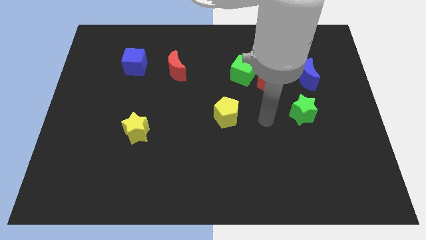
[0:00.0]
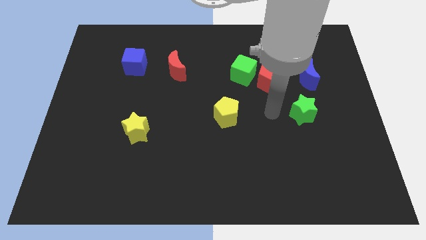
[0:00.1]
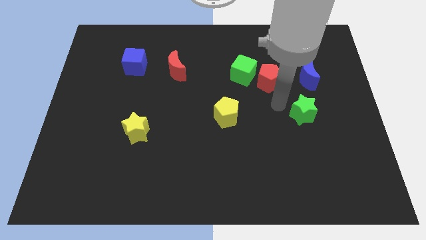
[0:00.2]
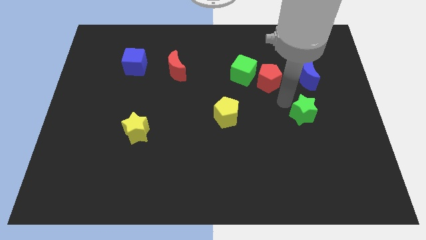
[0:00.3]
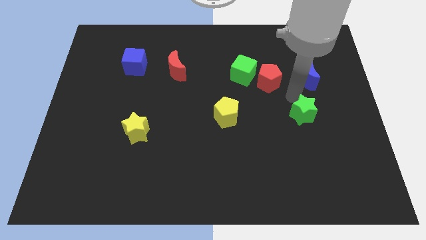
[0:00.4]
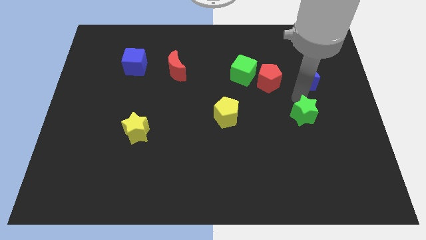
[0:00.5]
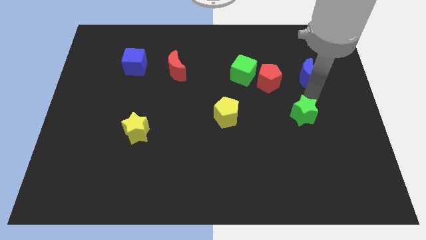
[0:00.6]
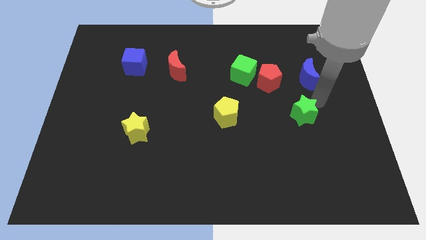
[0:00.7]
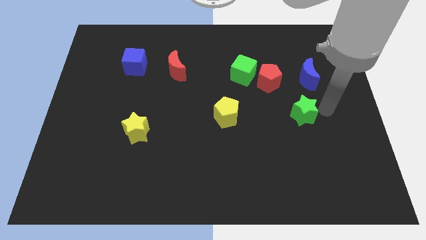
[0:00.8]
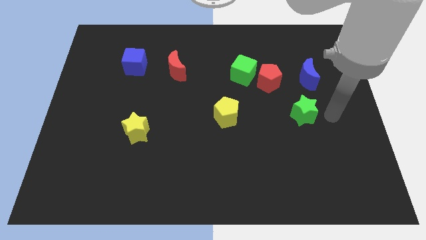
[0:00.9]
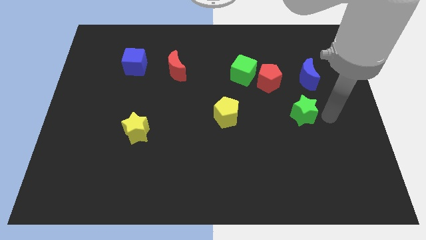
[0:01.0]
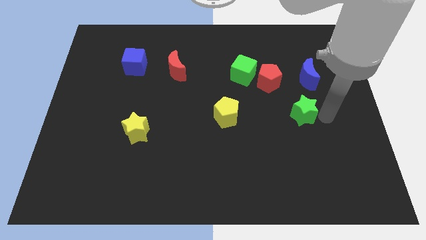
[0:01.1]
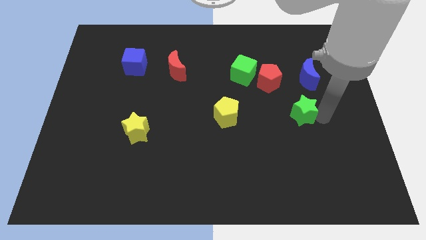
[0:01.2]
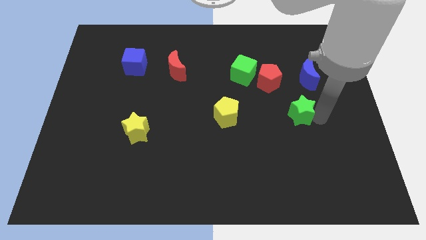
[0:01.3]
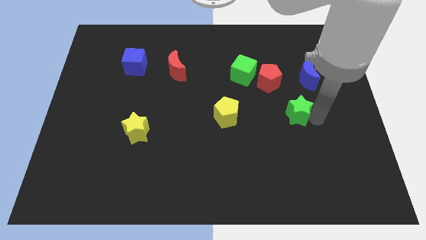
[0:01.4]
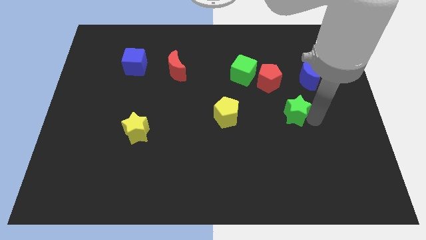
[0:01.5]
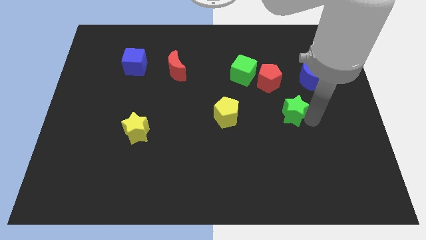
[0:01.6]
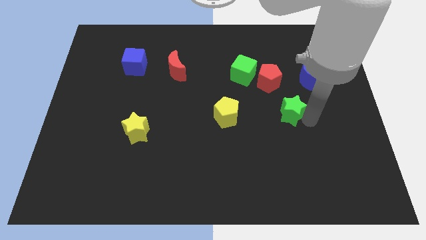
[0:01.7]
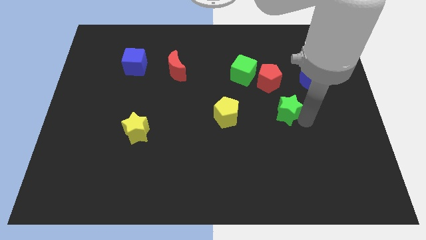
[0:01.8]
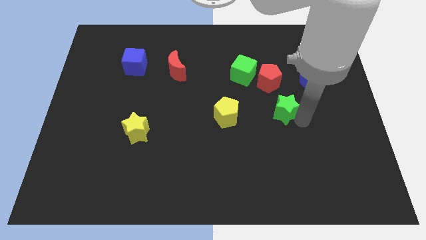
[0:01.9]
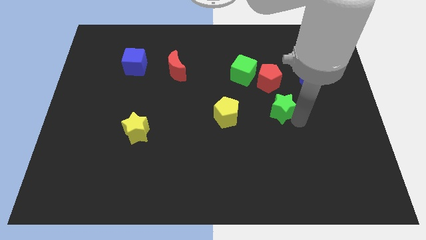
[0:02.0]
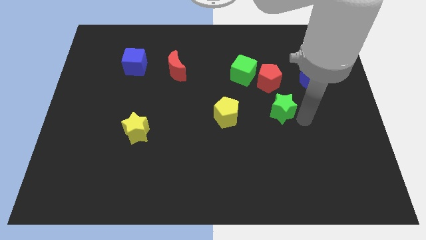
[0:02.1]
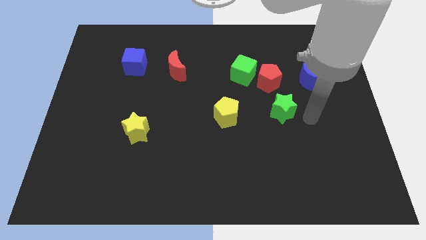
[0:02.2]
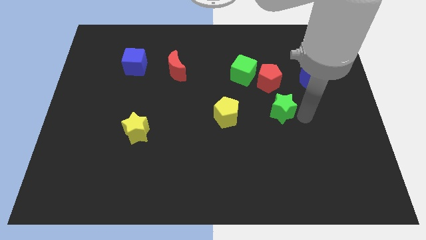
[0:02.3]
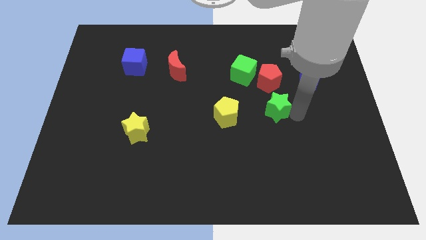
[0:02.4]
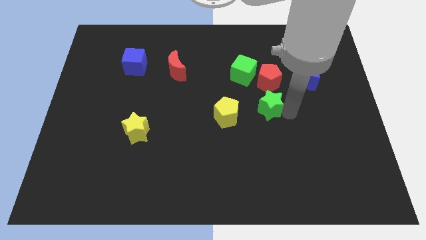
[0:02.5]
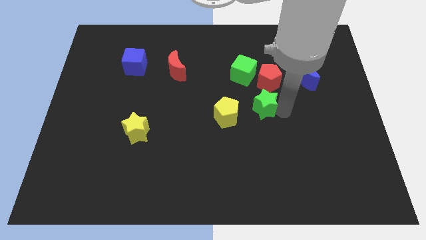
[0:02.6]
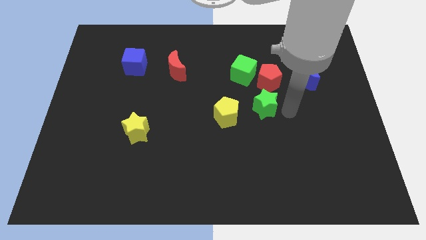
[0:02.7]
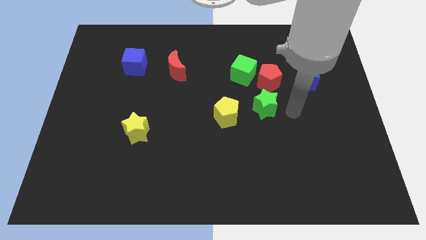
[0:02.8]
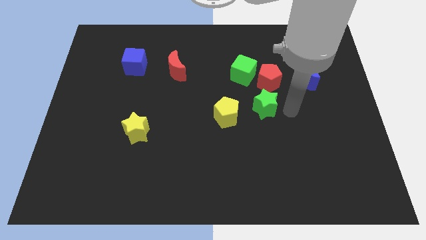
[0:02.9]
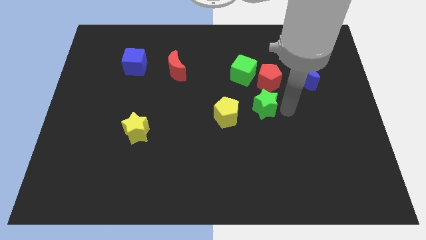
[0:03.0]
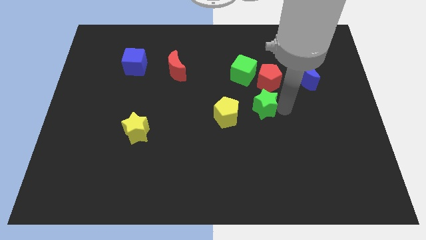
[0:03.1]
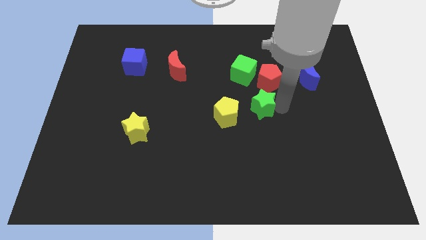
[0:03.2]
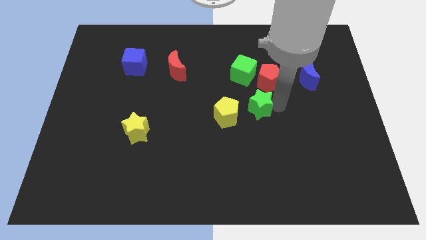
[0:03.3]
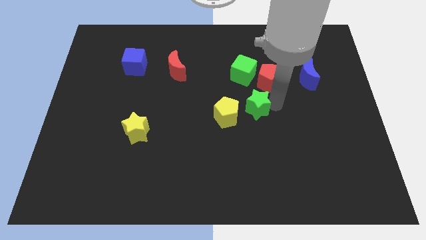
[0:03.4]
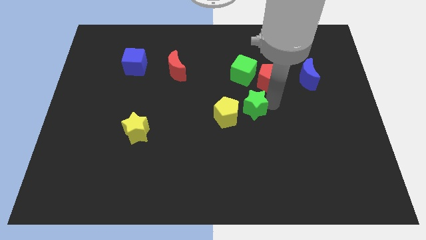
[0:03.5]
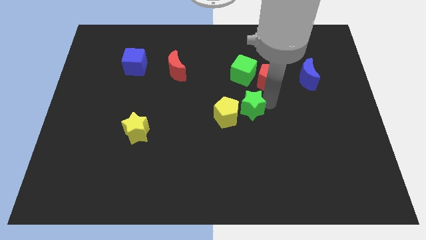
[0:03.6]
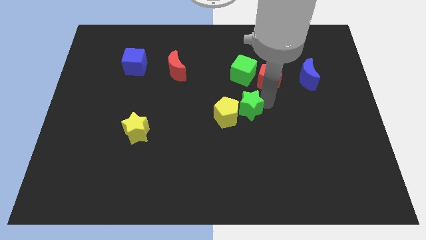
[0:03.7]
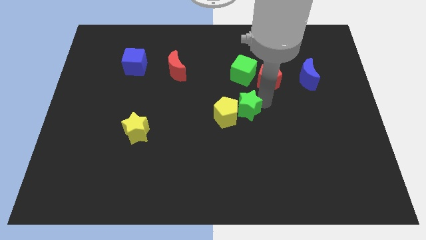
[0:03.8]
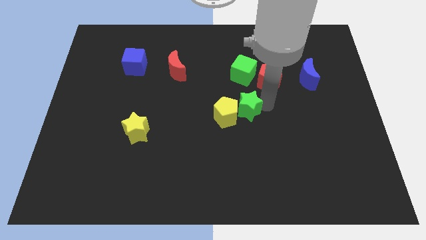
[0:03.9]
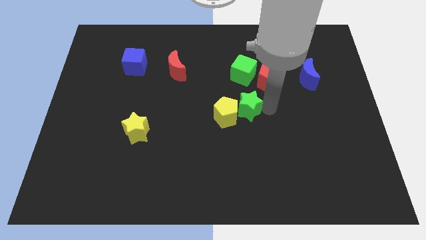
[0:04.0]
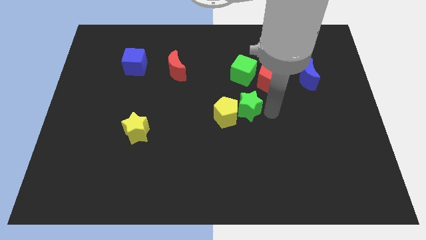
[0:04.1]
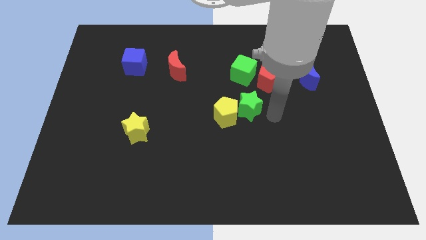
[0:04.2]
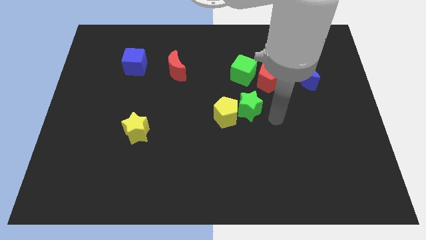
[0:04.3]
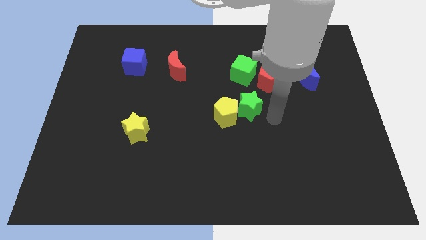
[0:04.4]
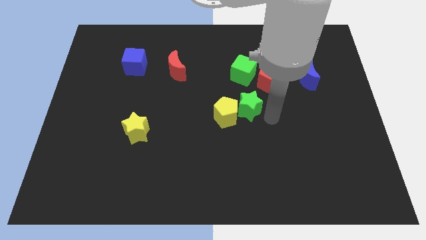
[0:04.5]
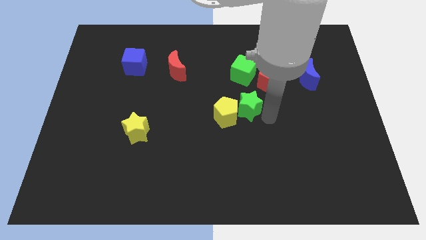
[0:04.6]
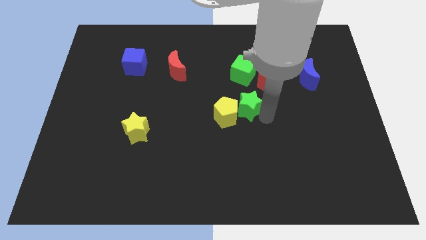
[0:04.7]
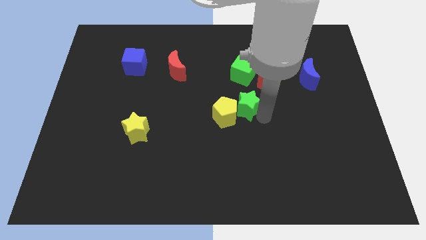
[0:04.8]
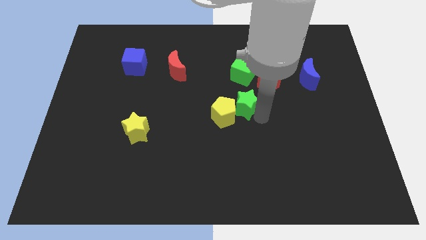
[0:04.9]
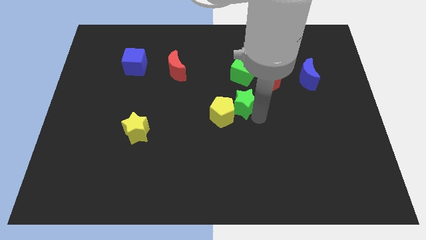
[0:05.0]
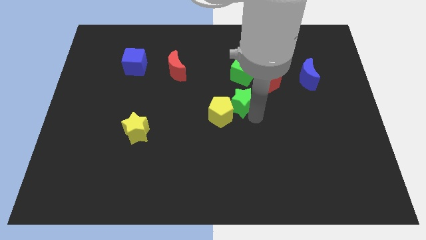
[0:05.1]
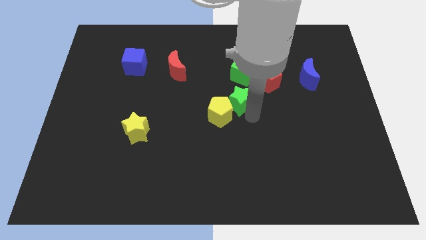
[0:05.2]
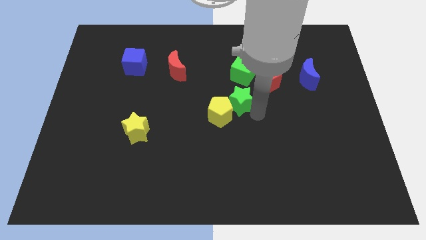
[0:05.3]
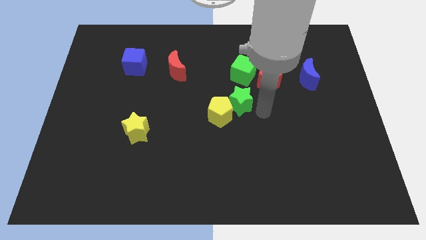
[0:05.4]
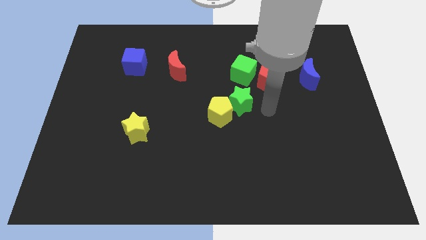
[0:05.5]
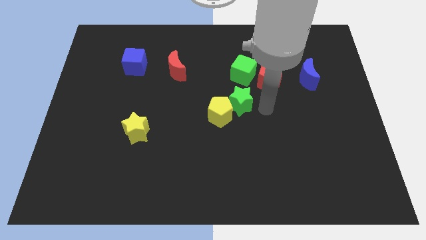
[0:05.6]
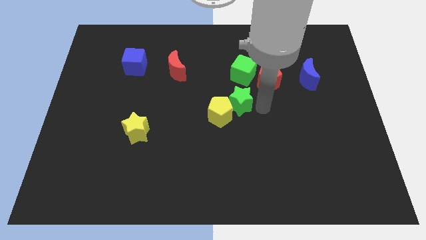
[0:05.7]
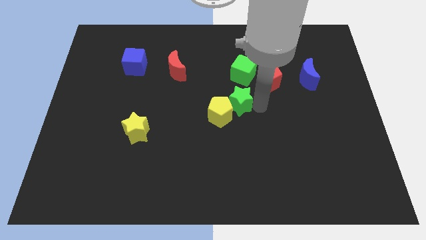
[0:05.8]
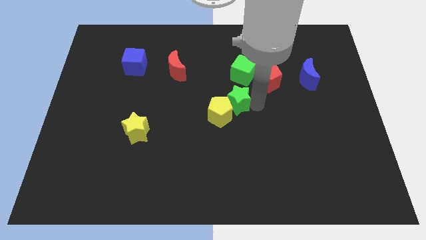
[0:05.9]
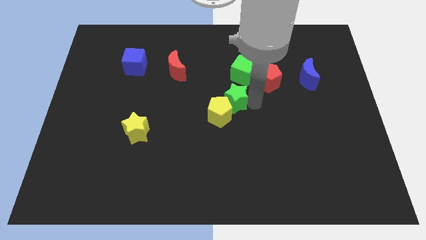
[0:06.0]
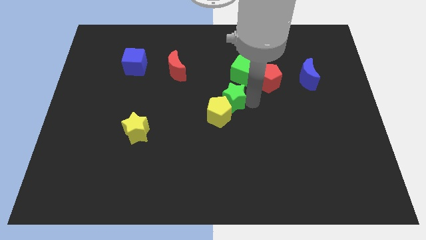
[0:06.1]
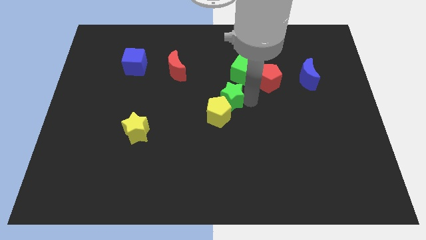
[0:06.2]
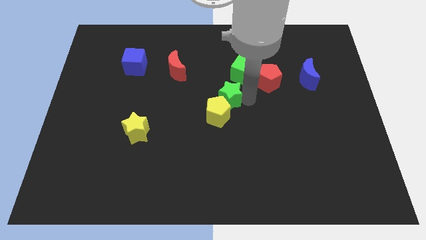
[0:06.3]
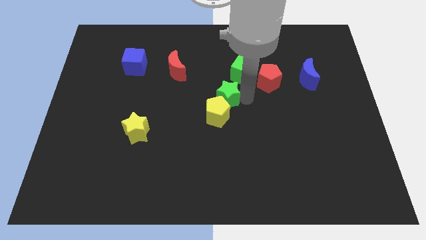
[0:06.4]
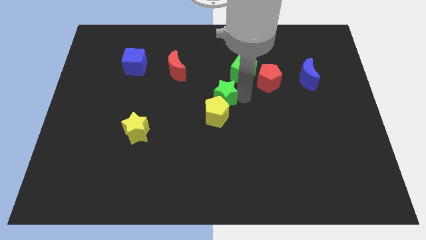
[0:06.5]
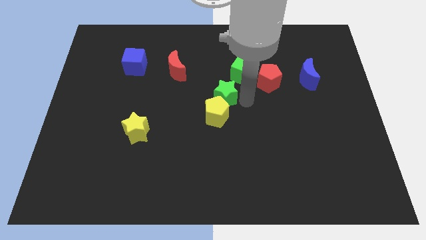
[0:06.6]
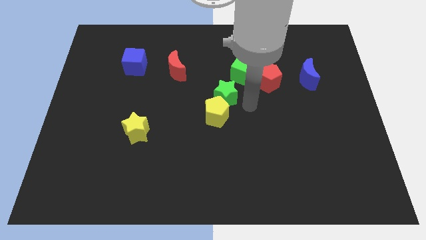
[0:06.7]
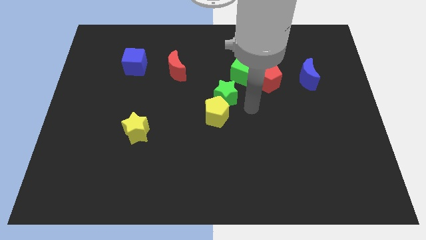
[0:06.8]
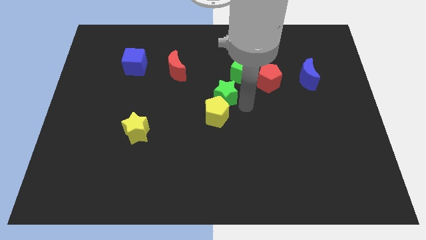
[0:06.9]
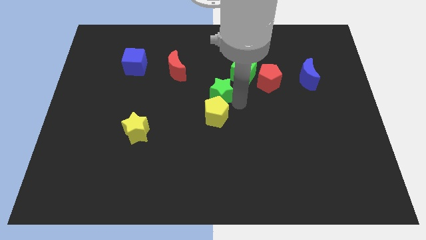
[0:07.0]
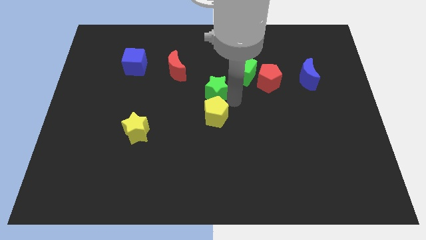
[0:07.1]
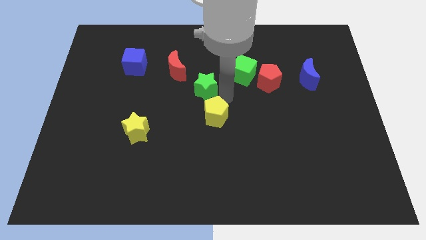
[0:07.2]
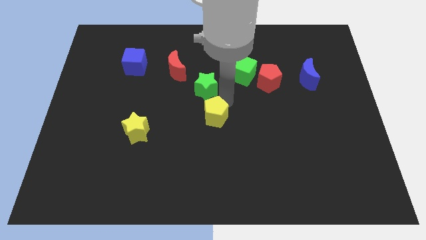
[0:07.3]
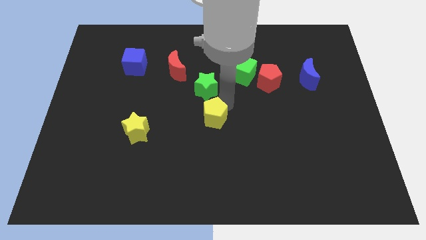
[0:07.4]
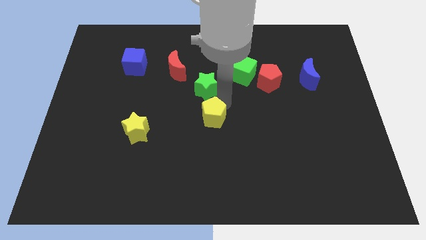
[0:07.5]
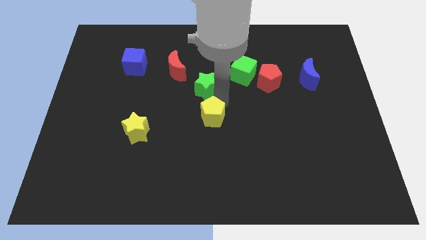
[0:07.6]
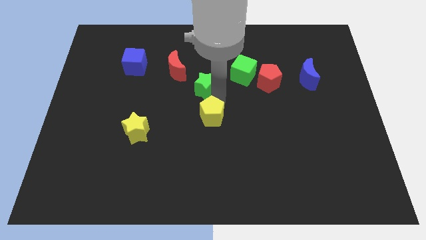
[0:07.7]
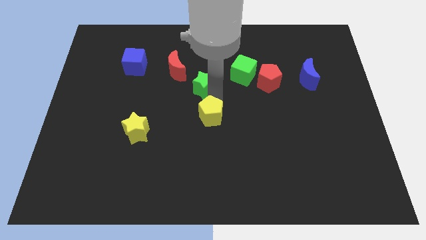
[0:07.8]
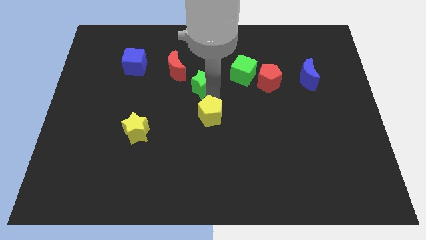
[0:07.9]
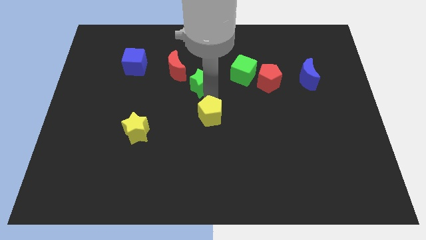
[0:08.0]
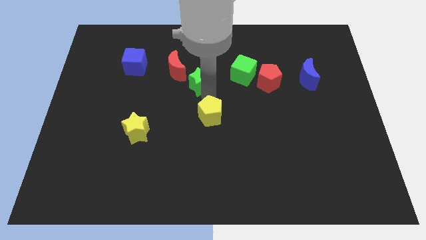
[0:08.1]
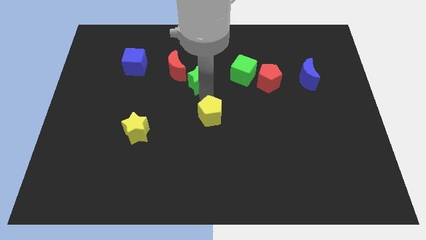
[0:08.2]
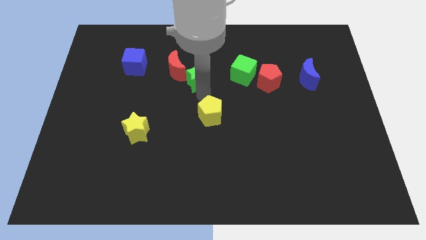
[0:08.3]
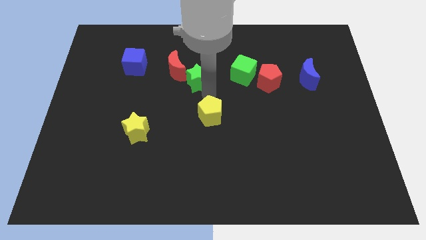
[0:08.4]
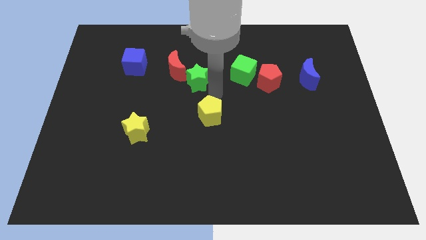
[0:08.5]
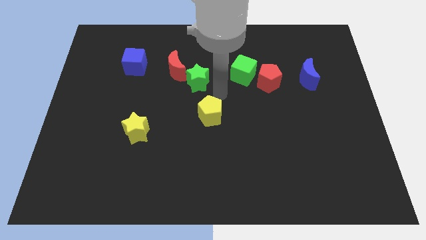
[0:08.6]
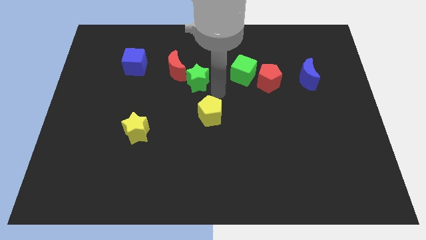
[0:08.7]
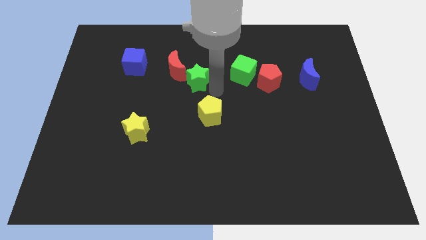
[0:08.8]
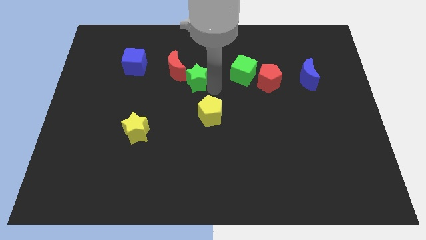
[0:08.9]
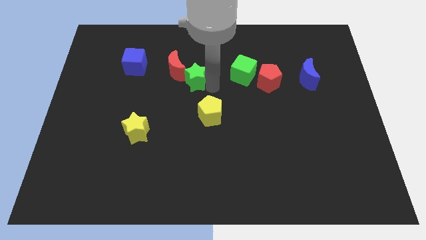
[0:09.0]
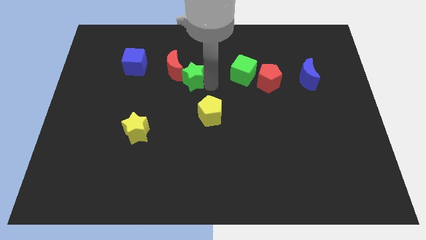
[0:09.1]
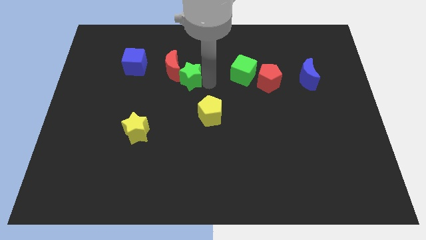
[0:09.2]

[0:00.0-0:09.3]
push the green star to the red moon
